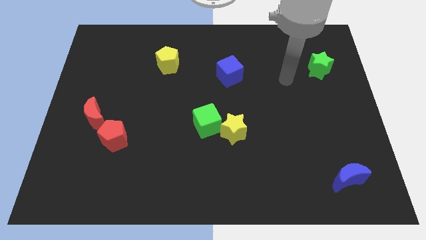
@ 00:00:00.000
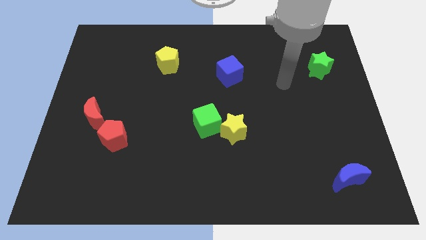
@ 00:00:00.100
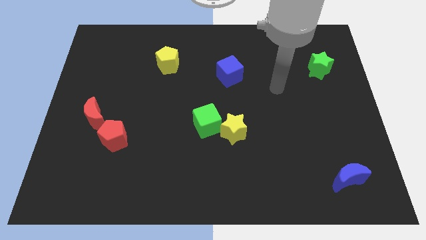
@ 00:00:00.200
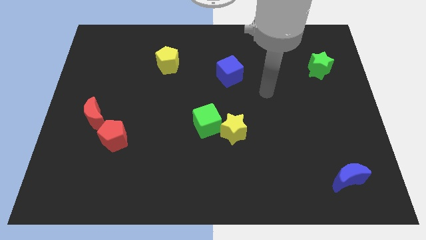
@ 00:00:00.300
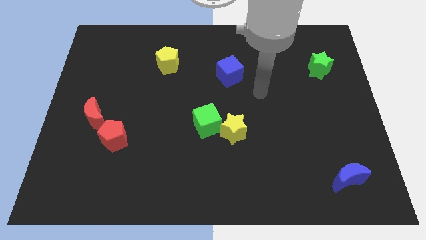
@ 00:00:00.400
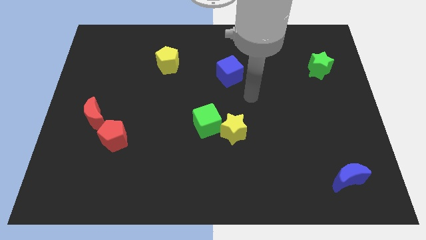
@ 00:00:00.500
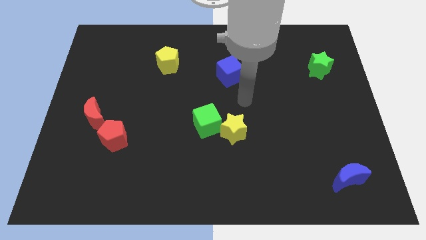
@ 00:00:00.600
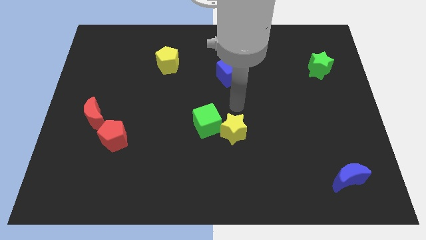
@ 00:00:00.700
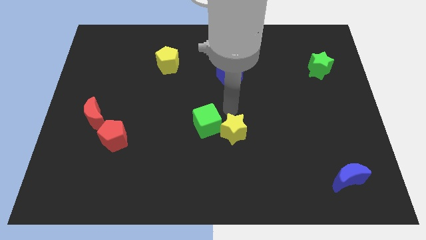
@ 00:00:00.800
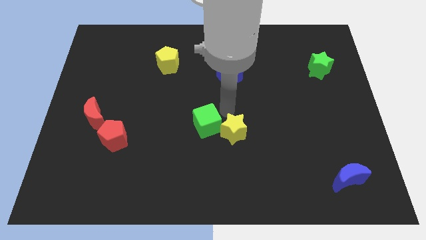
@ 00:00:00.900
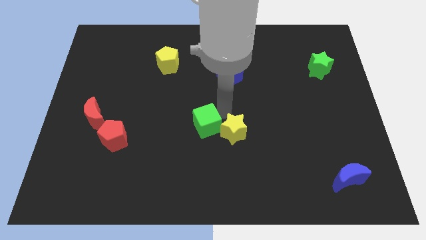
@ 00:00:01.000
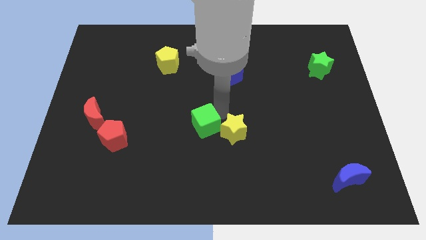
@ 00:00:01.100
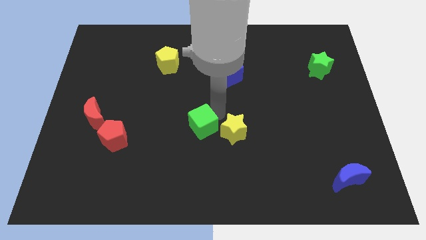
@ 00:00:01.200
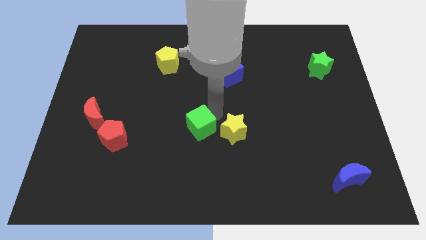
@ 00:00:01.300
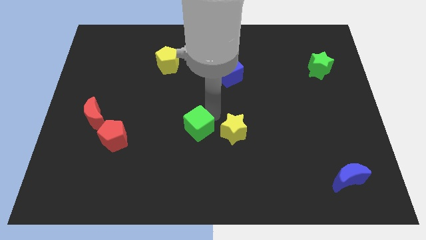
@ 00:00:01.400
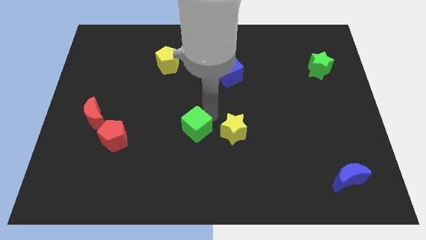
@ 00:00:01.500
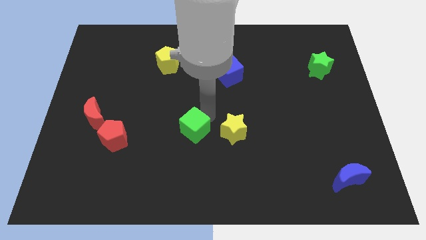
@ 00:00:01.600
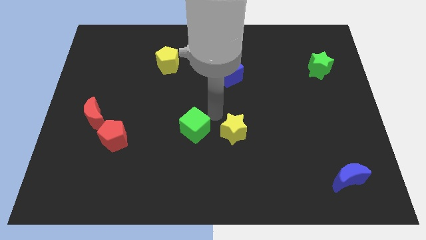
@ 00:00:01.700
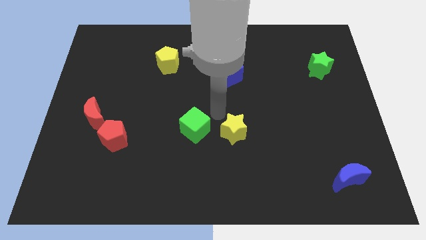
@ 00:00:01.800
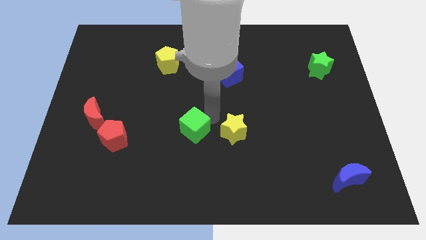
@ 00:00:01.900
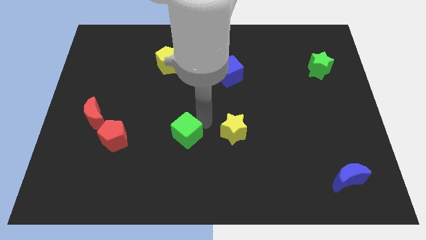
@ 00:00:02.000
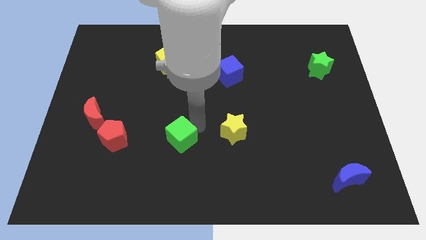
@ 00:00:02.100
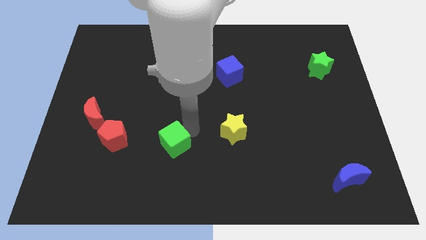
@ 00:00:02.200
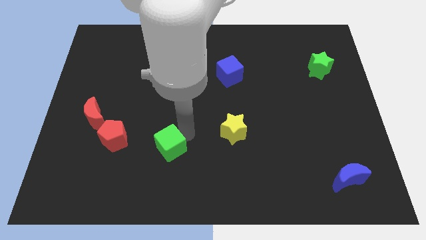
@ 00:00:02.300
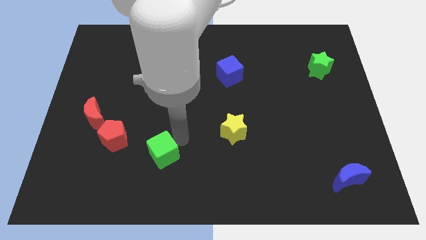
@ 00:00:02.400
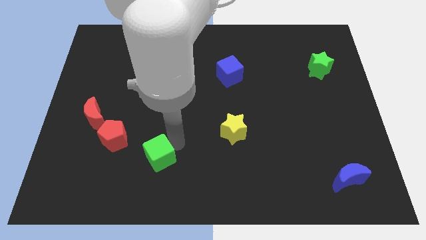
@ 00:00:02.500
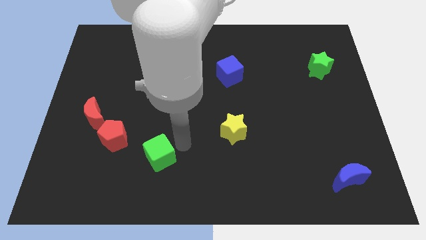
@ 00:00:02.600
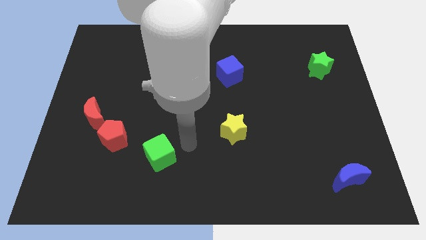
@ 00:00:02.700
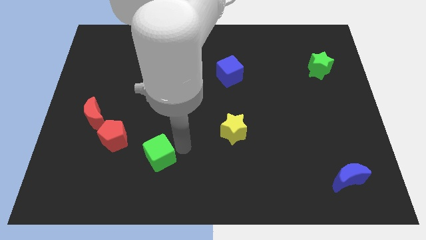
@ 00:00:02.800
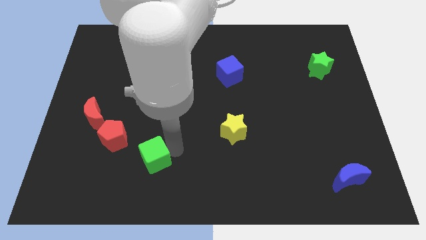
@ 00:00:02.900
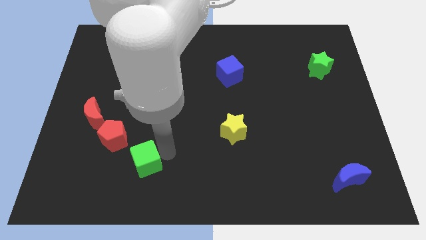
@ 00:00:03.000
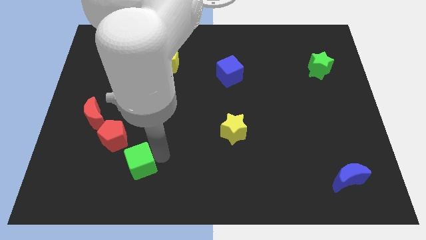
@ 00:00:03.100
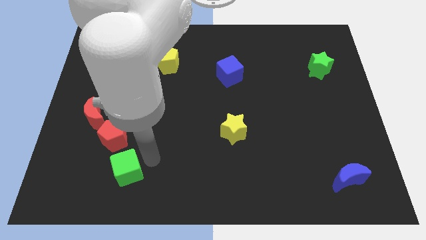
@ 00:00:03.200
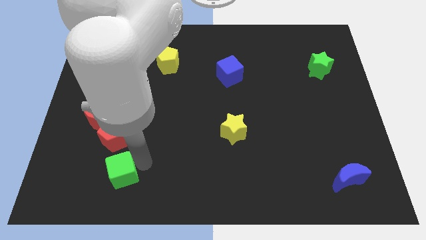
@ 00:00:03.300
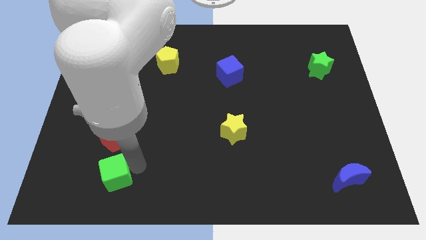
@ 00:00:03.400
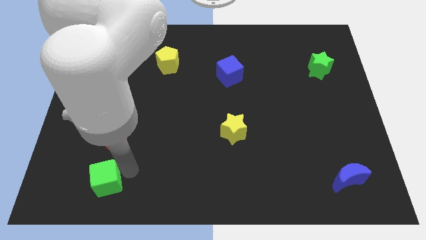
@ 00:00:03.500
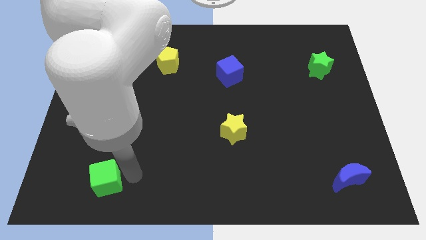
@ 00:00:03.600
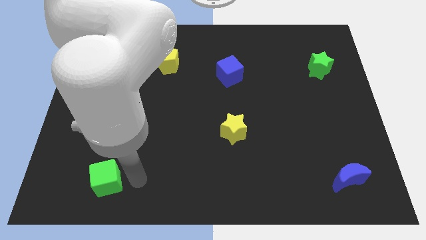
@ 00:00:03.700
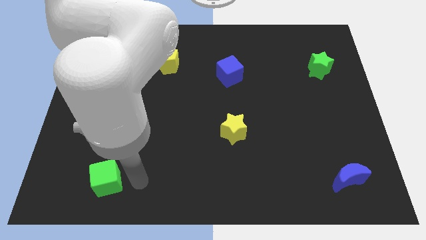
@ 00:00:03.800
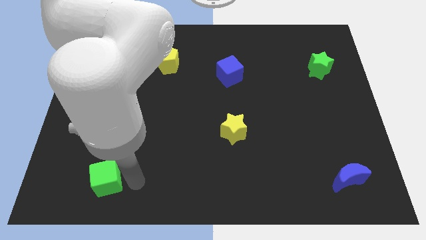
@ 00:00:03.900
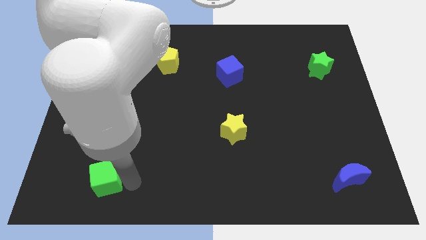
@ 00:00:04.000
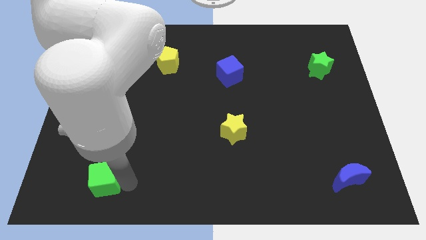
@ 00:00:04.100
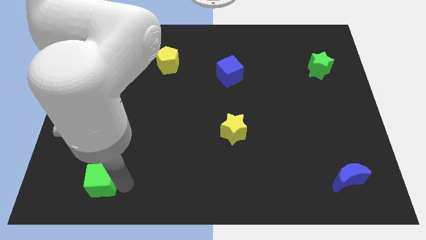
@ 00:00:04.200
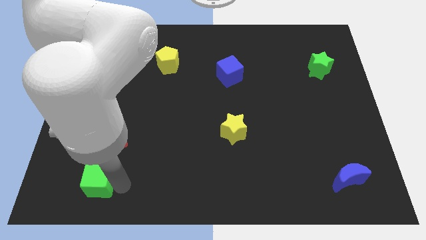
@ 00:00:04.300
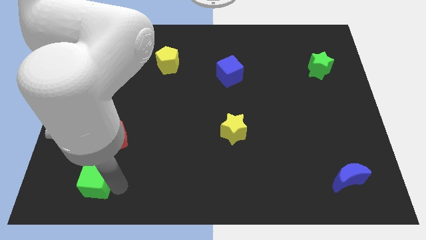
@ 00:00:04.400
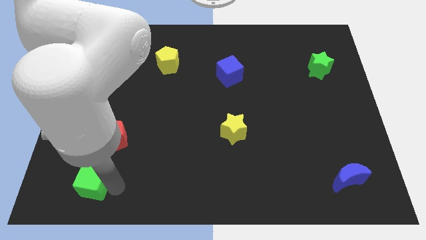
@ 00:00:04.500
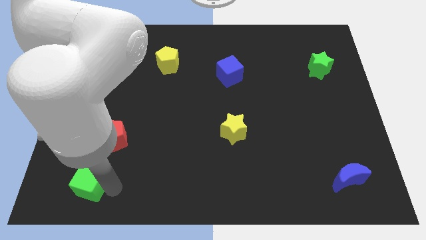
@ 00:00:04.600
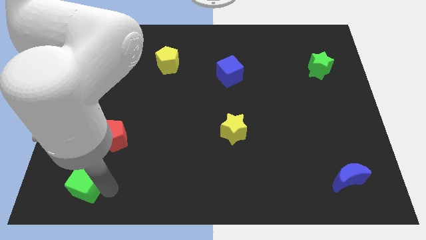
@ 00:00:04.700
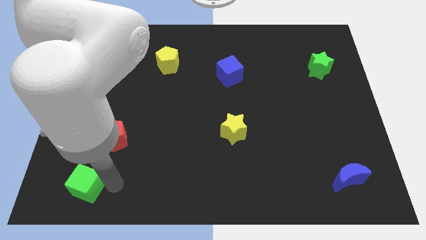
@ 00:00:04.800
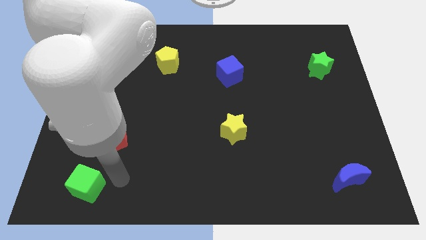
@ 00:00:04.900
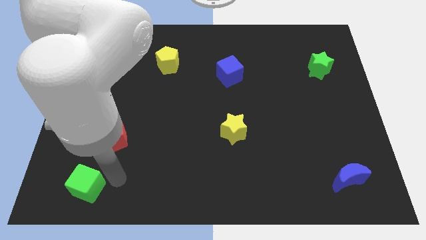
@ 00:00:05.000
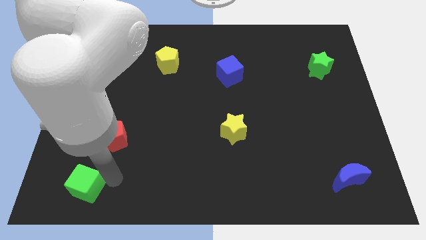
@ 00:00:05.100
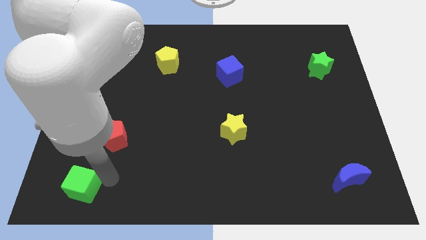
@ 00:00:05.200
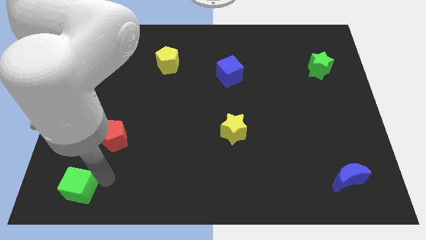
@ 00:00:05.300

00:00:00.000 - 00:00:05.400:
put the green cube to the bottom left of the board
